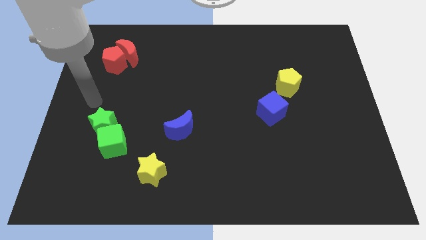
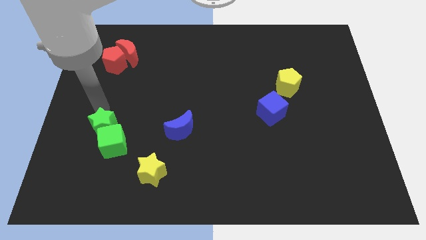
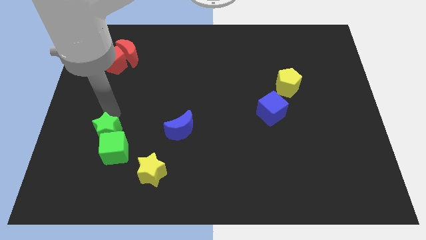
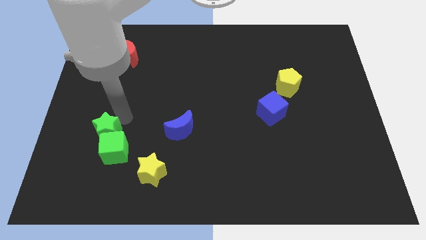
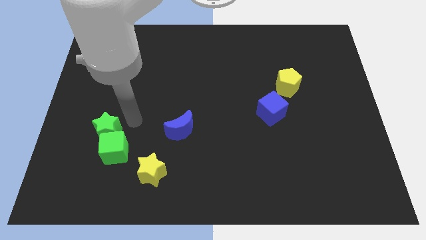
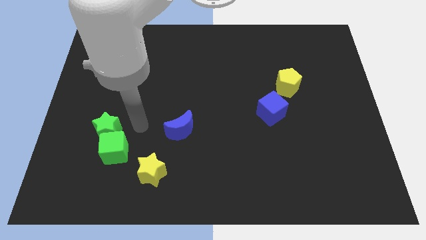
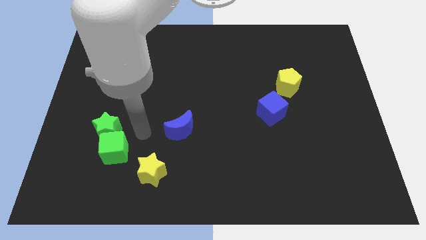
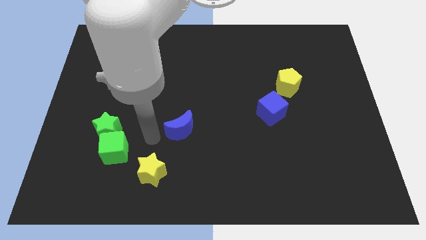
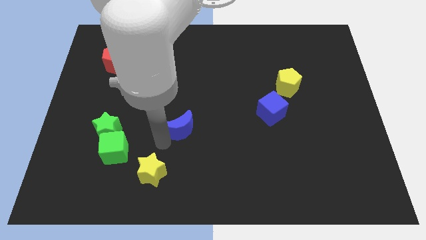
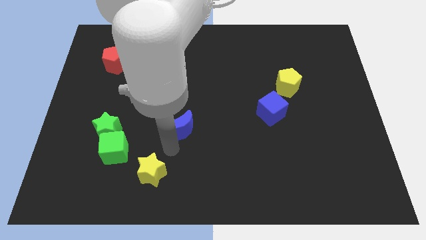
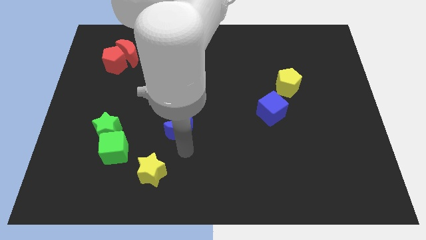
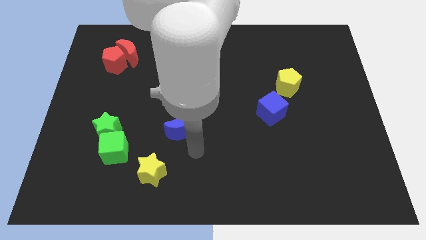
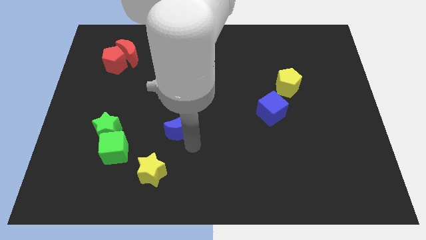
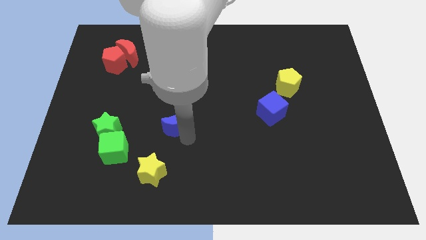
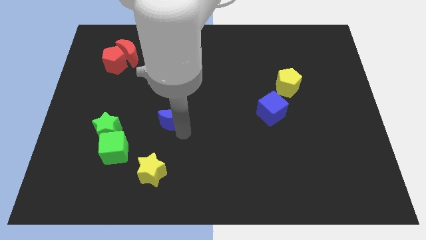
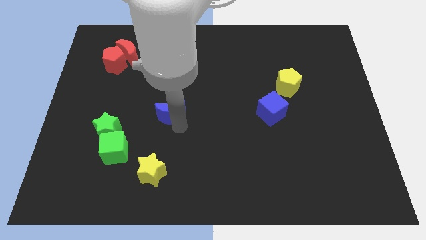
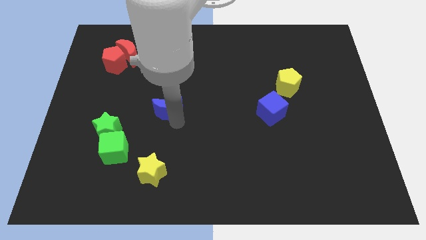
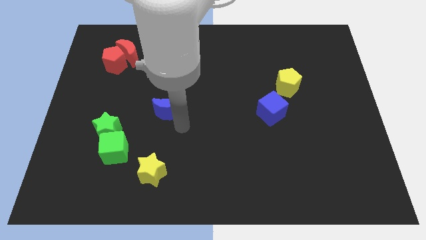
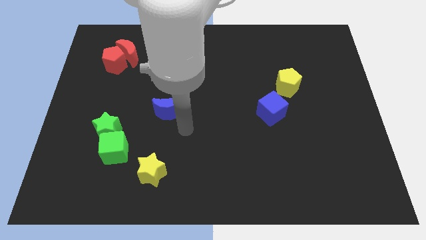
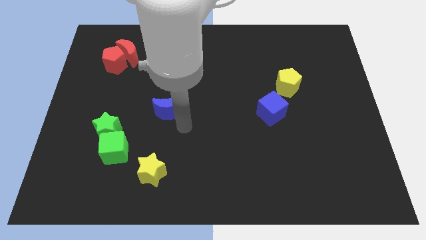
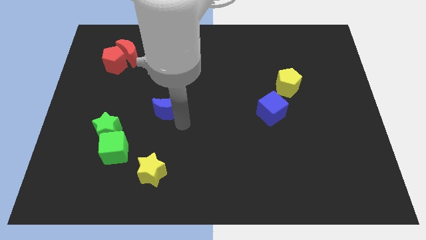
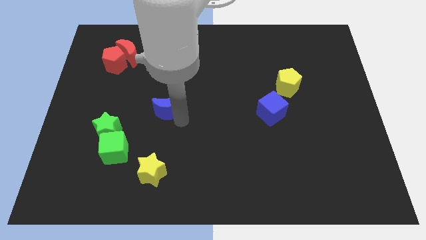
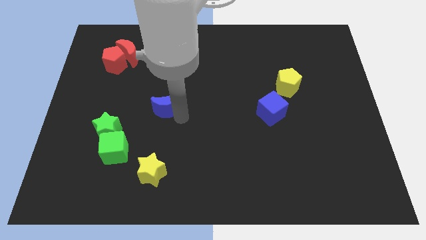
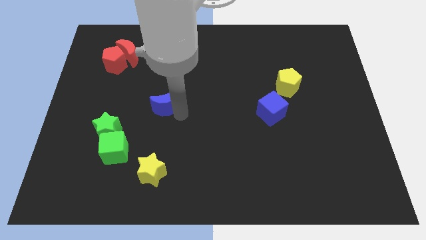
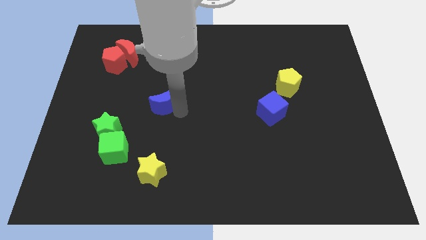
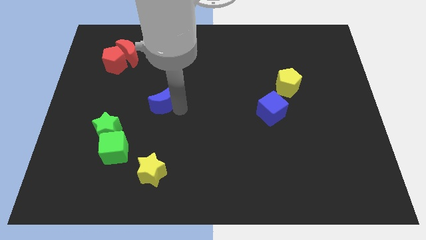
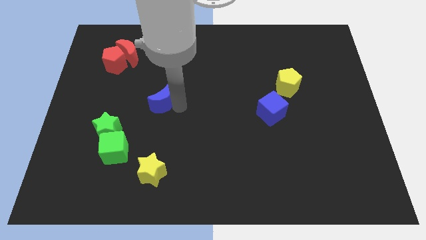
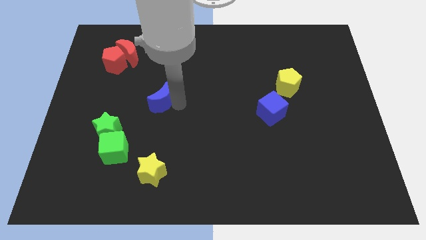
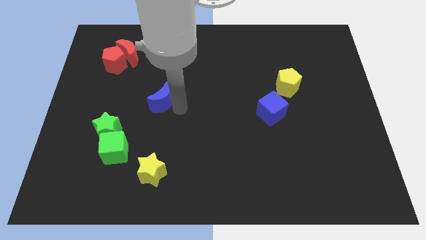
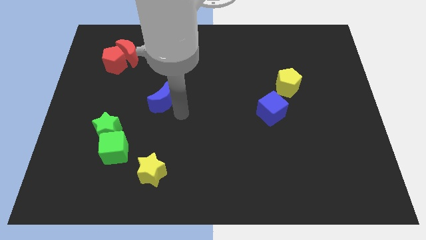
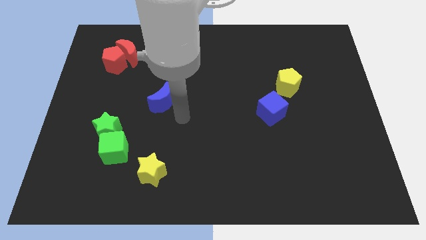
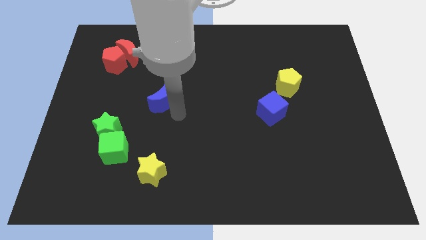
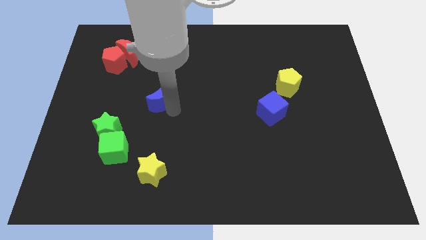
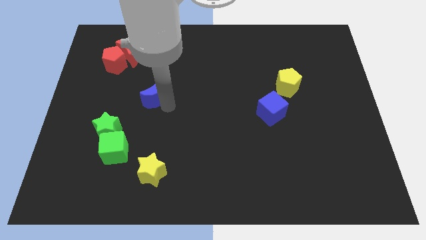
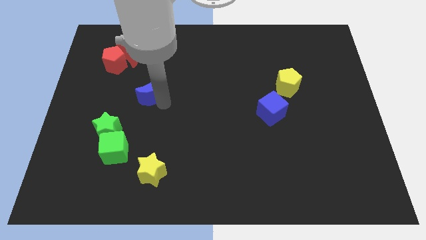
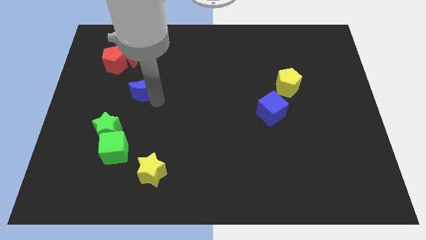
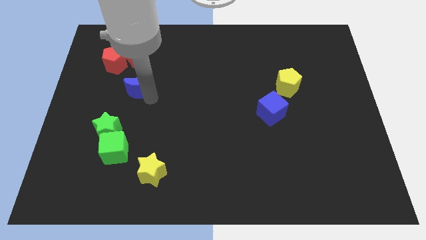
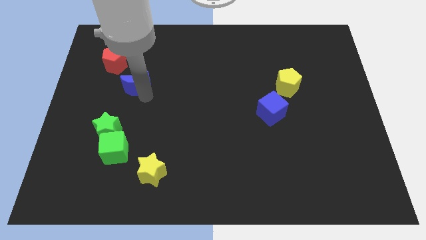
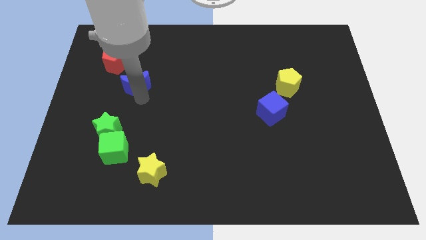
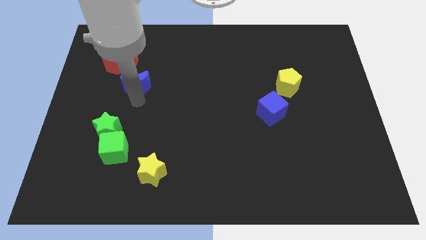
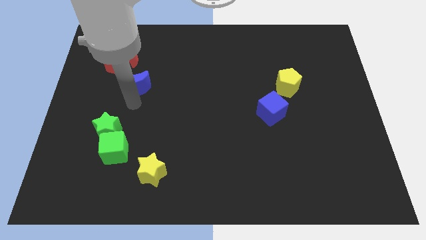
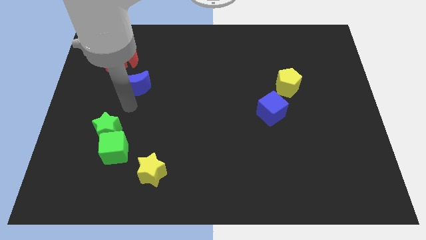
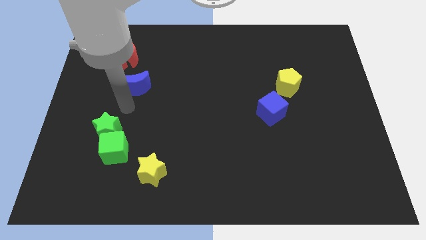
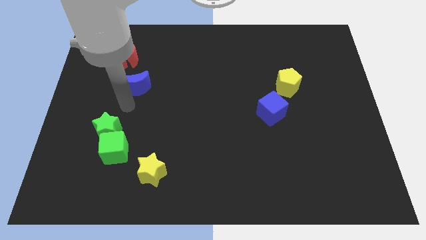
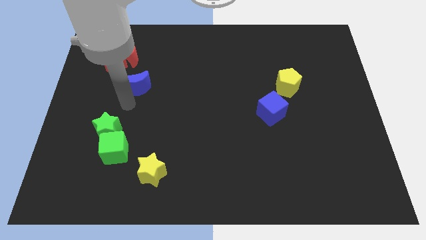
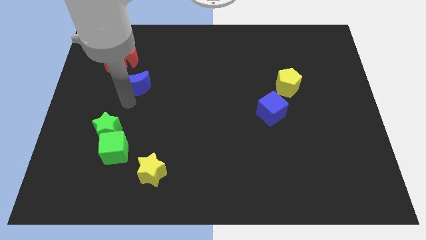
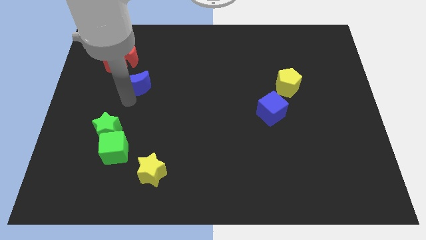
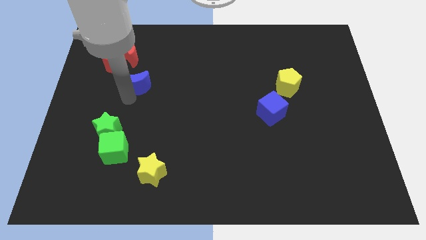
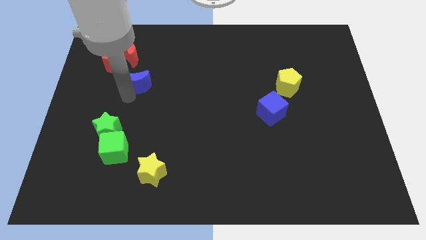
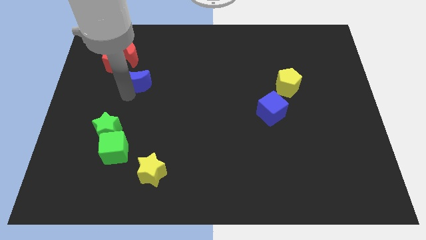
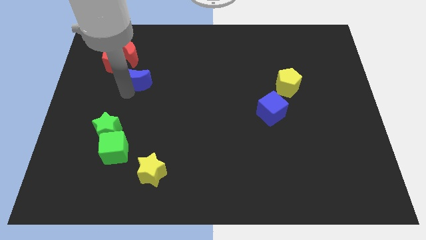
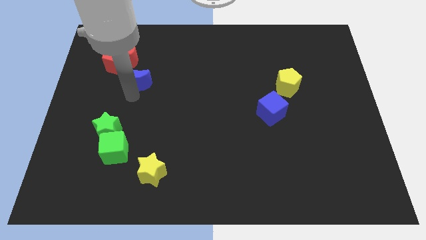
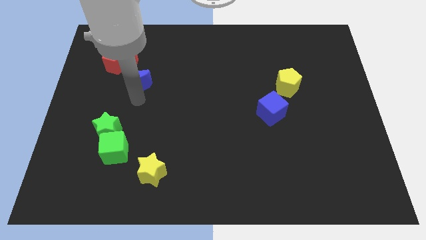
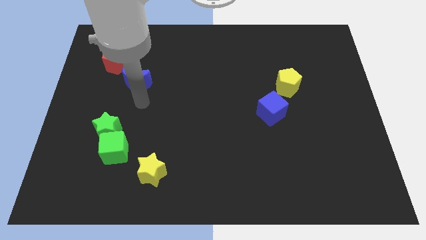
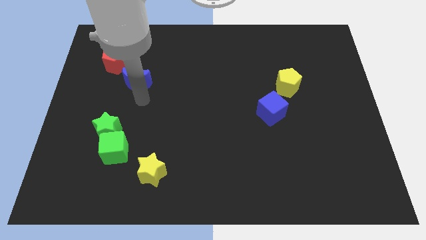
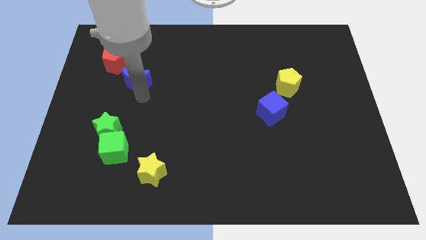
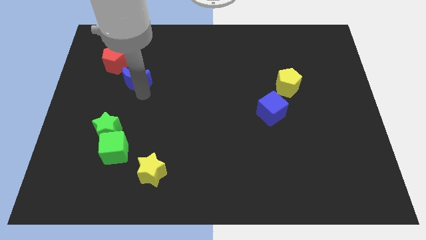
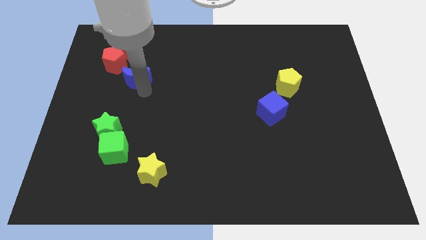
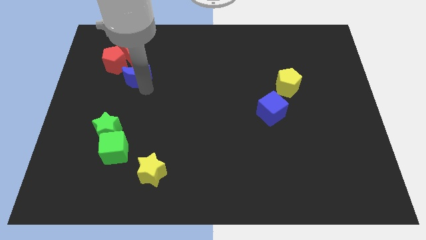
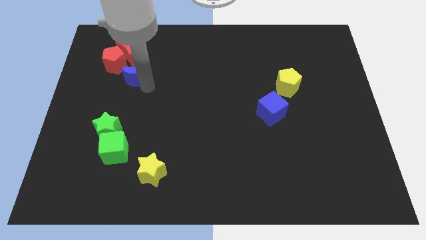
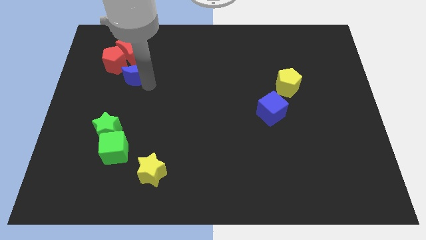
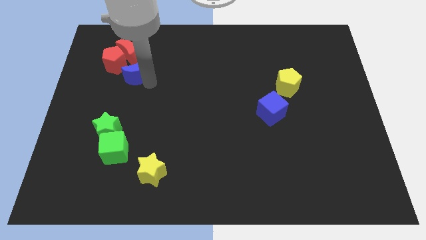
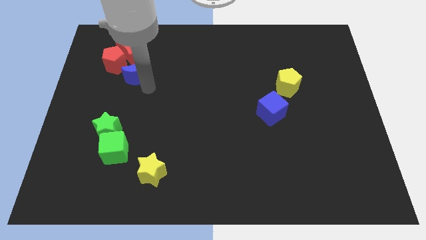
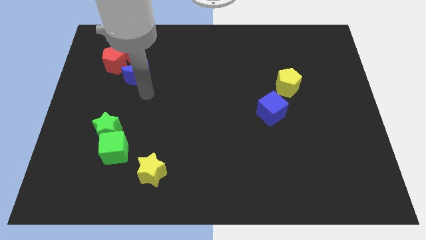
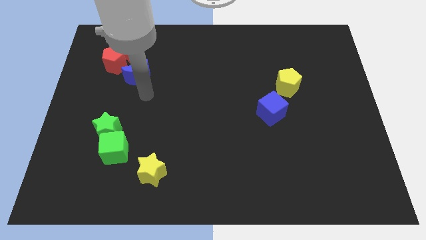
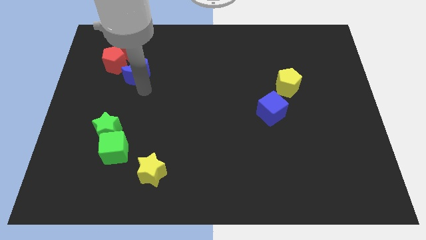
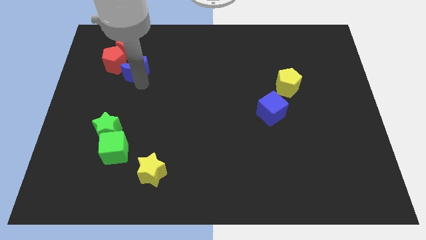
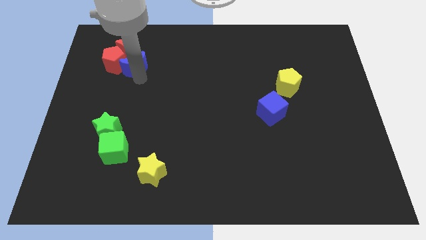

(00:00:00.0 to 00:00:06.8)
move the blue moon next to the red moon
